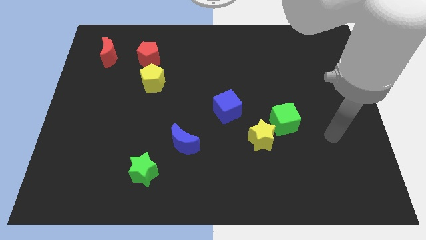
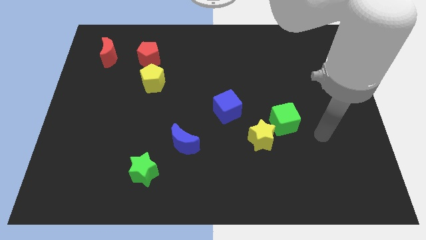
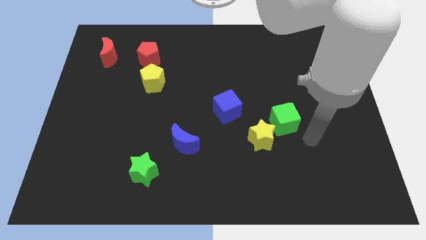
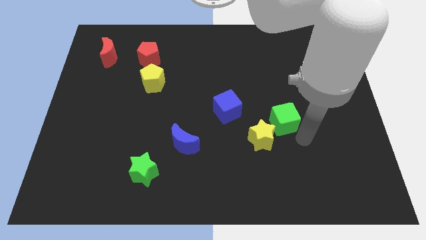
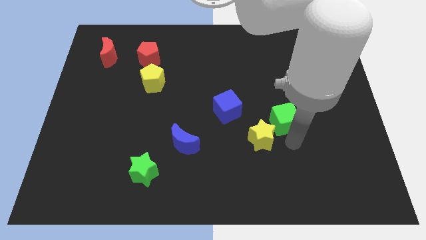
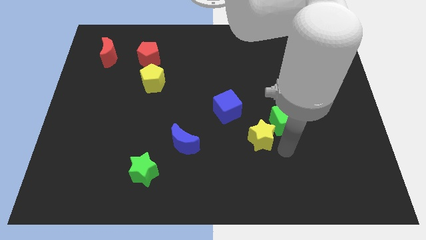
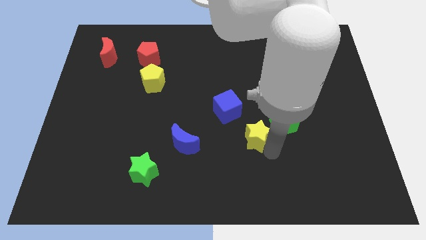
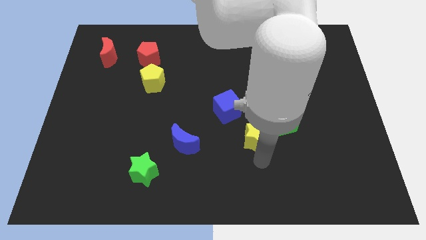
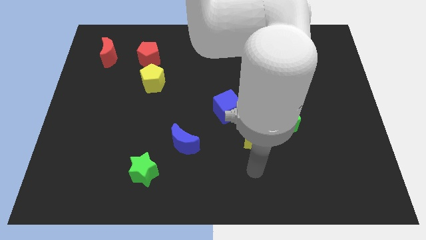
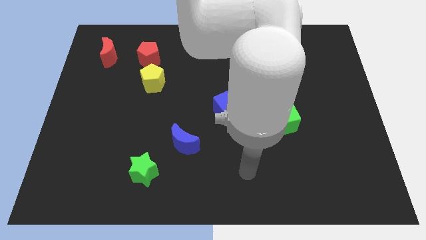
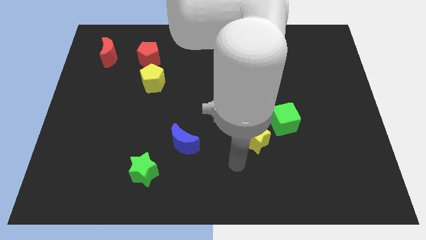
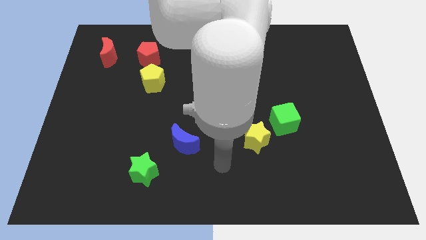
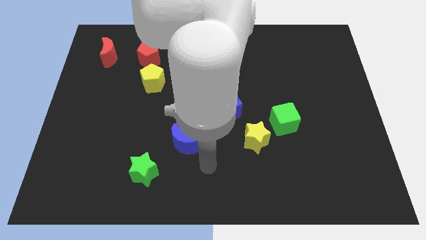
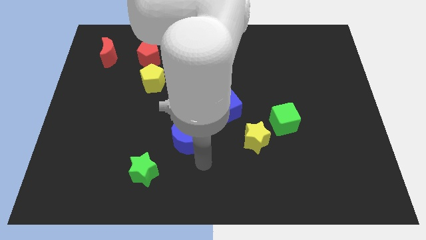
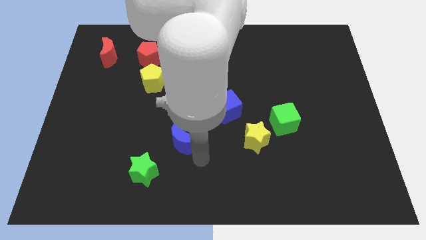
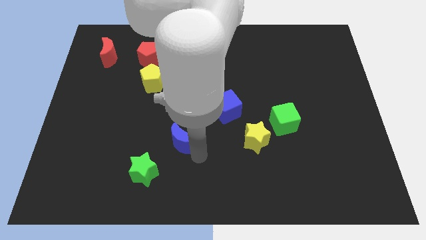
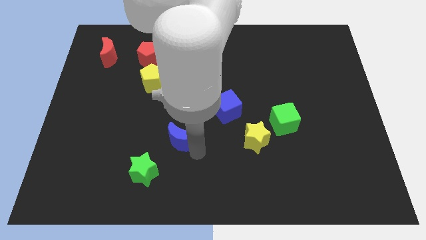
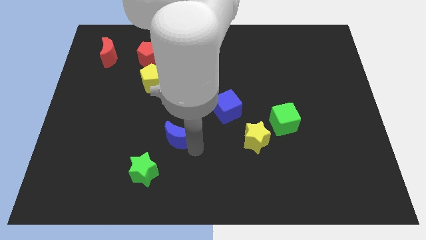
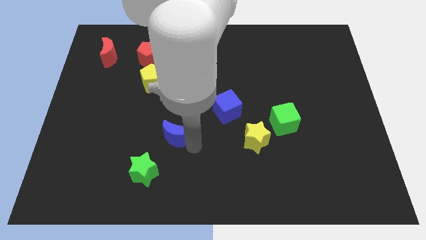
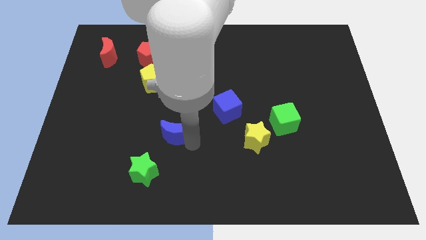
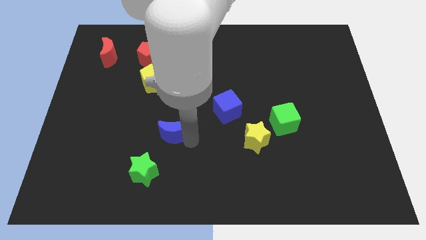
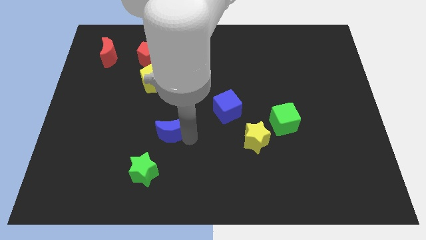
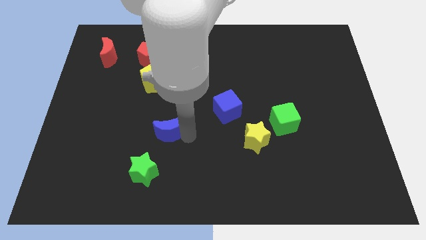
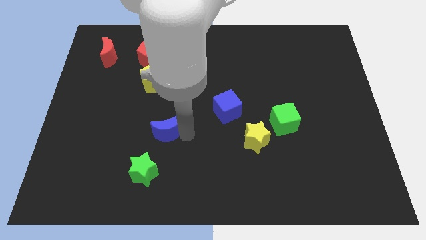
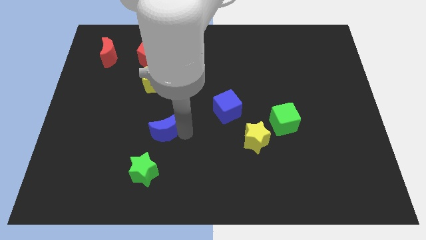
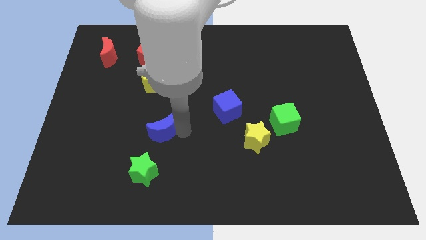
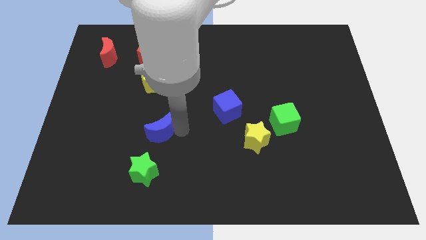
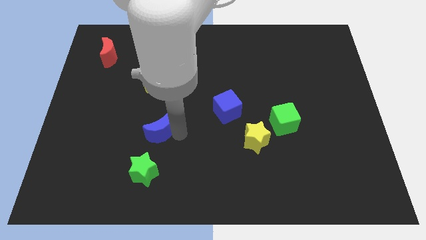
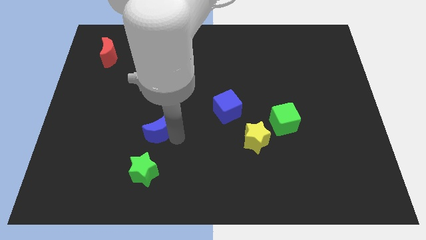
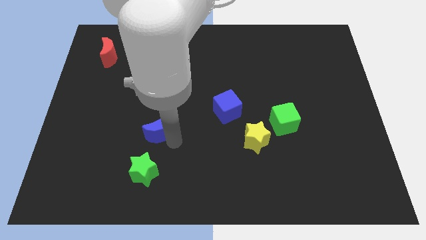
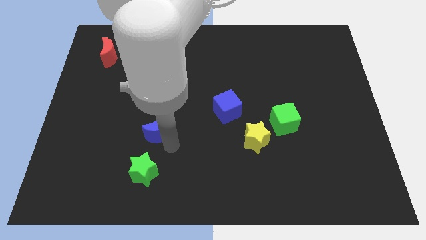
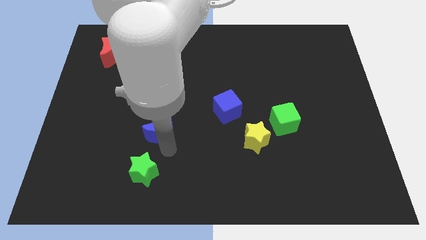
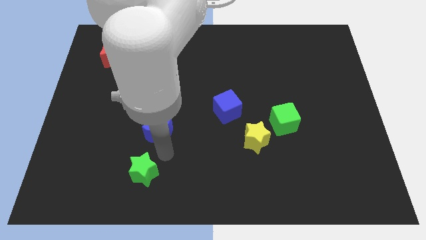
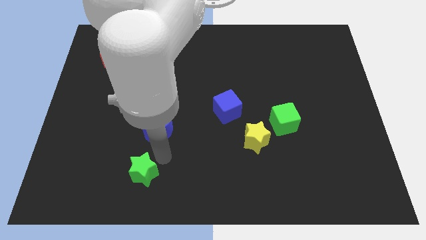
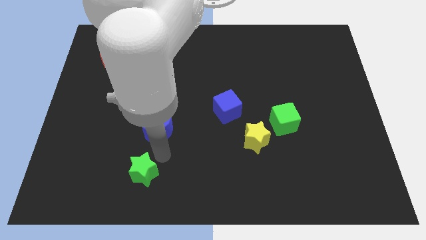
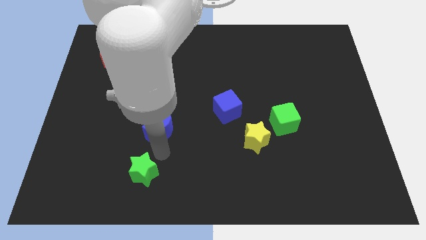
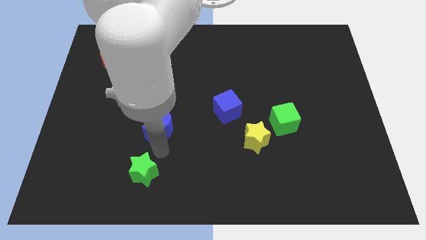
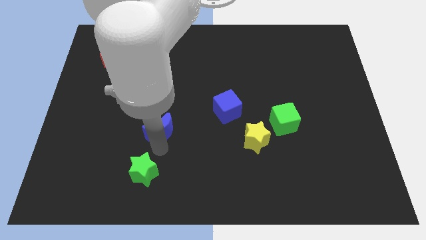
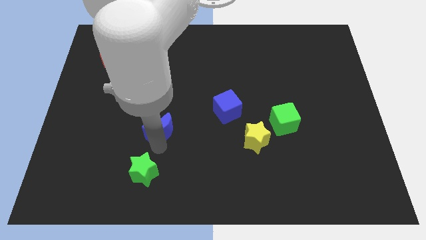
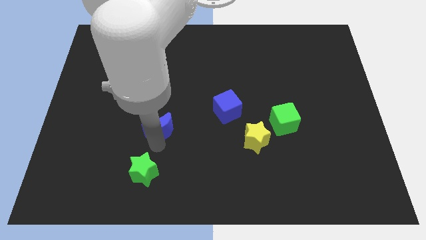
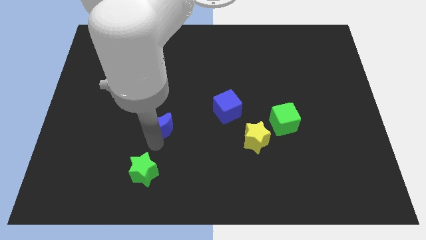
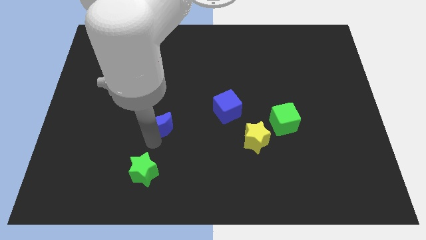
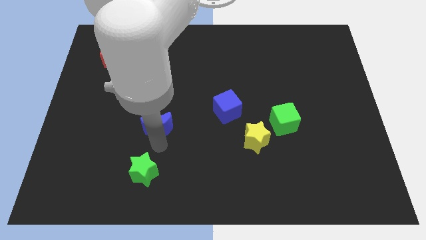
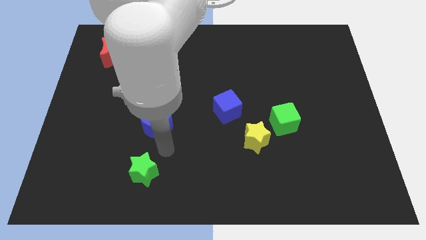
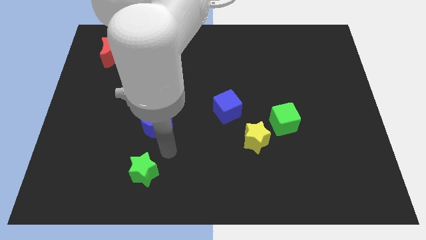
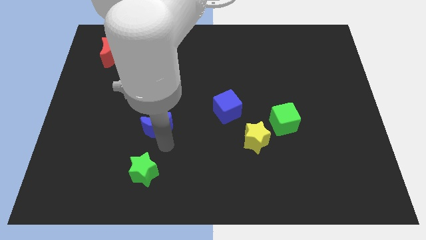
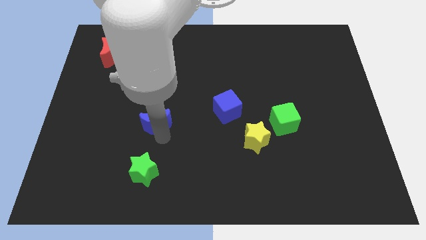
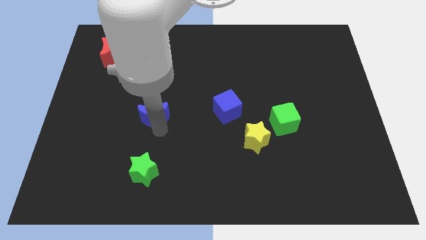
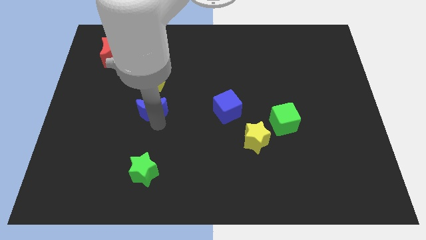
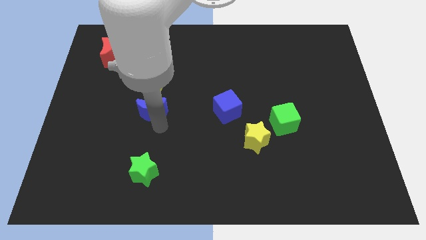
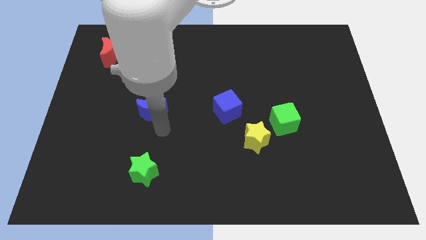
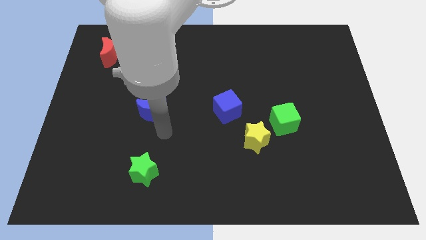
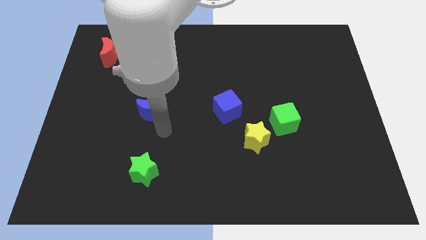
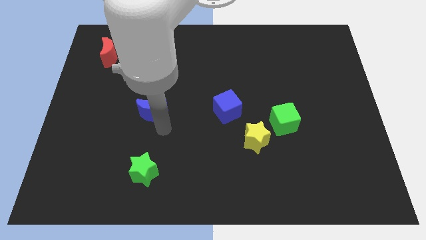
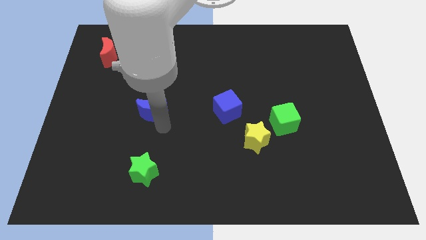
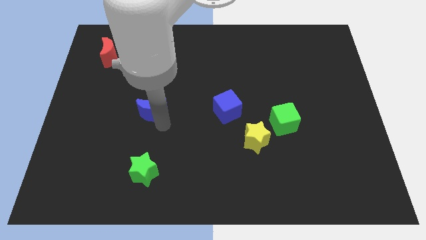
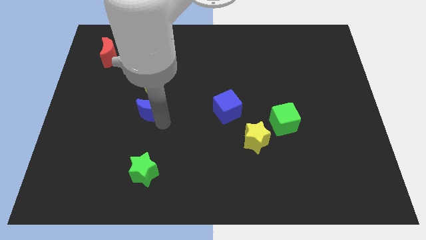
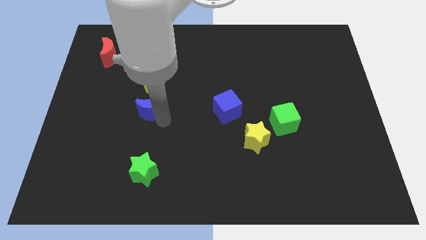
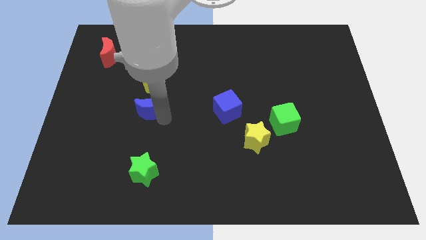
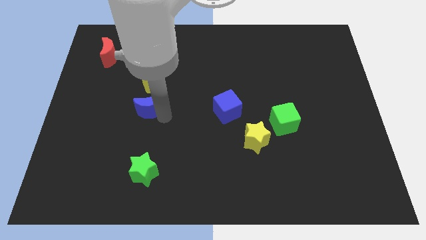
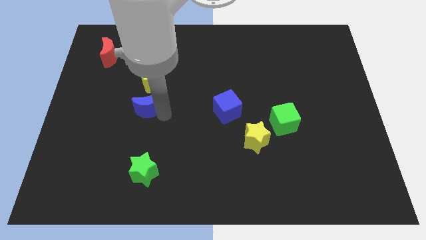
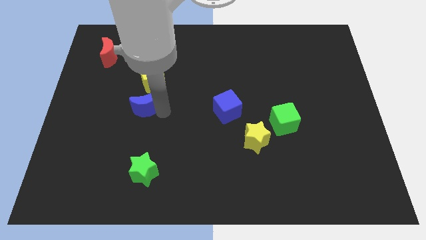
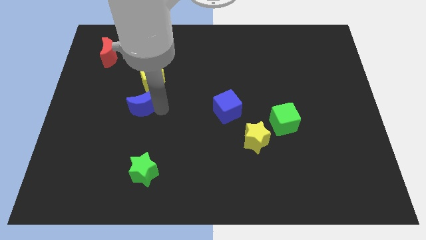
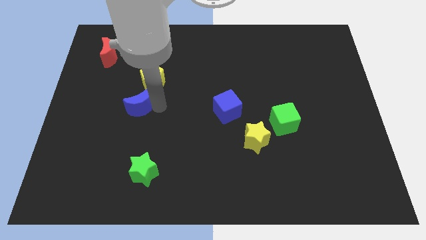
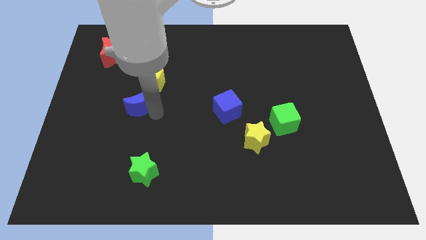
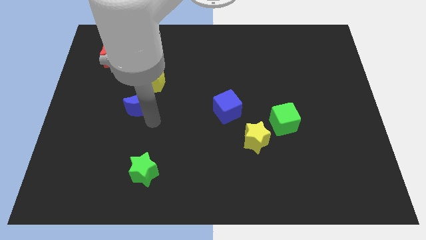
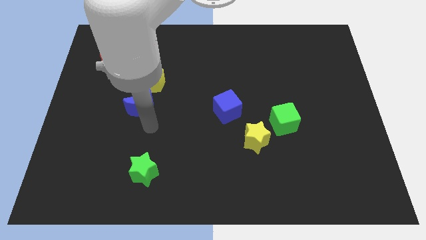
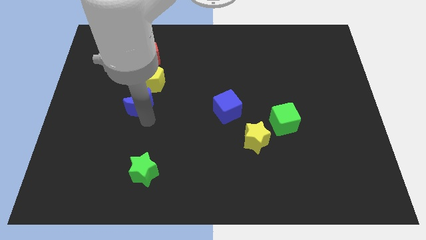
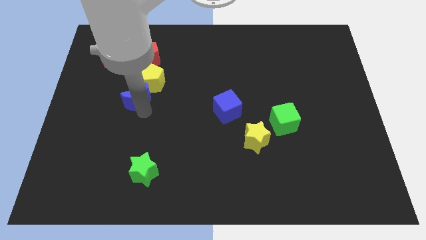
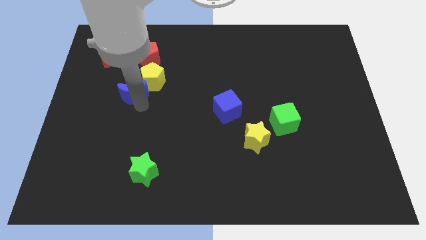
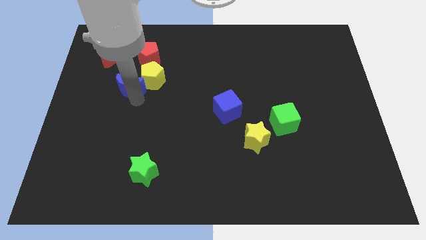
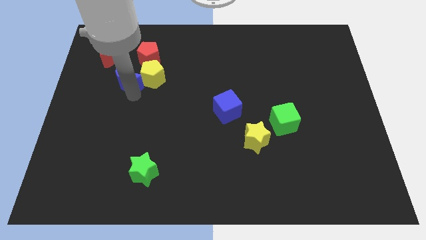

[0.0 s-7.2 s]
put the blue moon to the bottom left of the red pentagon
